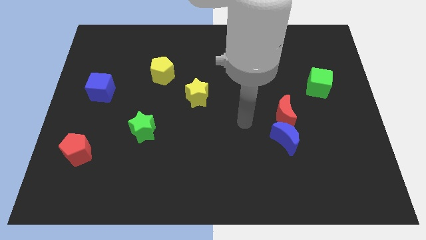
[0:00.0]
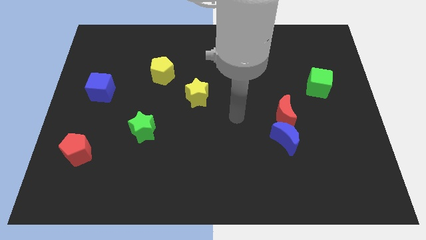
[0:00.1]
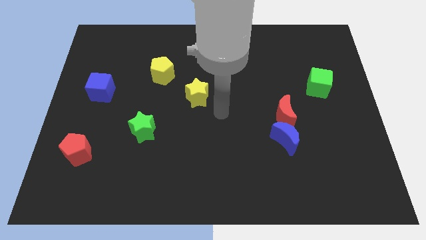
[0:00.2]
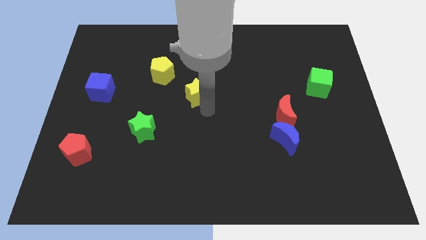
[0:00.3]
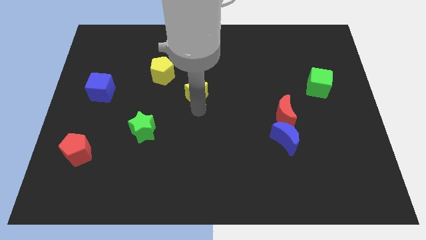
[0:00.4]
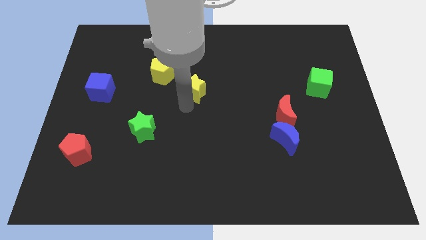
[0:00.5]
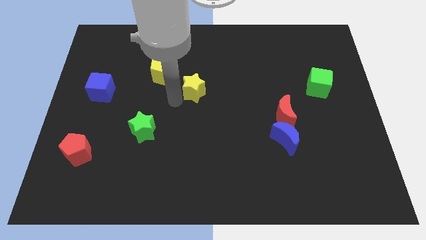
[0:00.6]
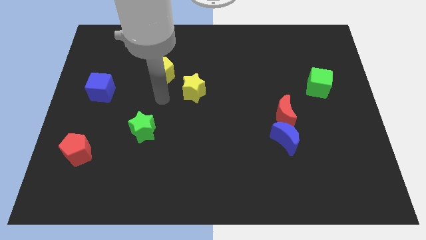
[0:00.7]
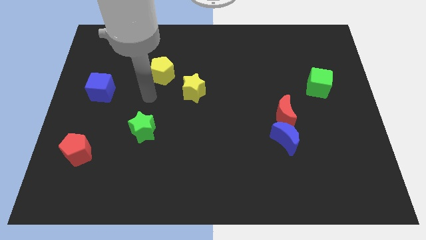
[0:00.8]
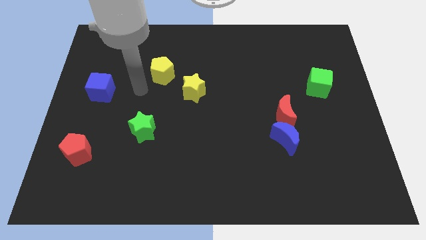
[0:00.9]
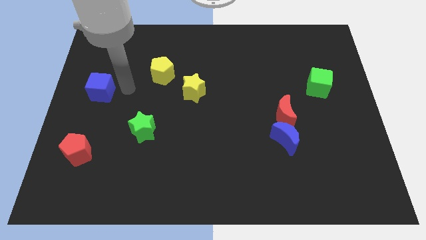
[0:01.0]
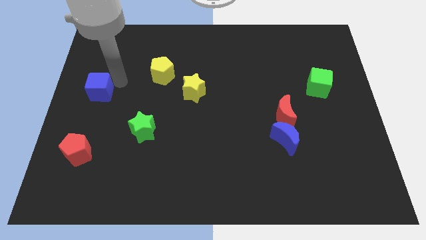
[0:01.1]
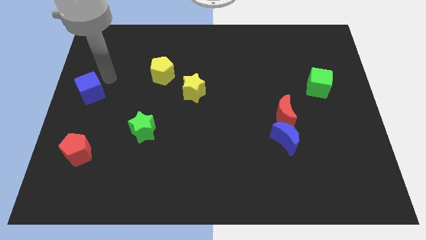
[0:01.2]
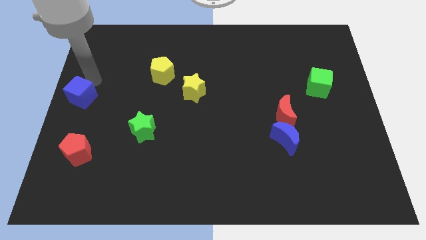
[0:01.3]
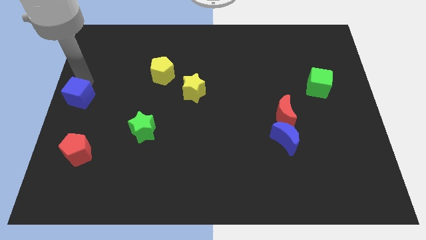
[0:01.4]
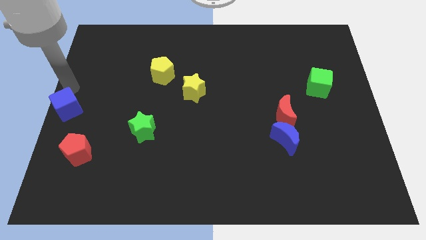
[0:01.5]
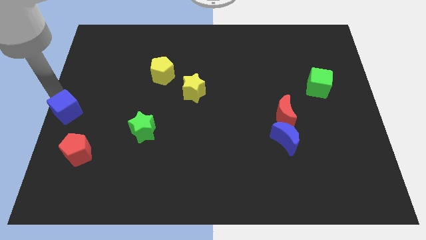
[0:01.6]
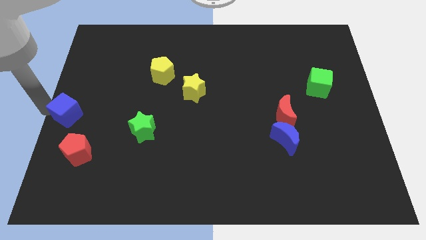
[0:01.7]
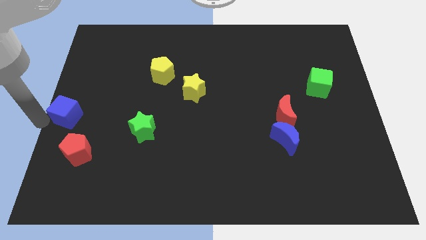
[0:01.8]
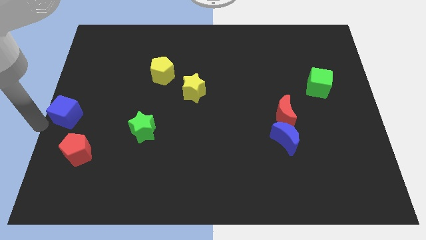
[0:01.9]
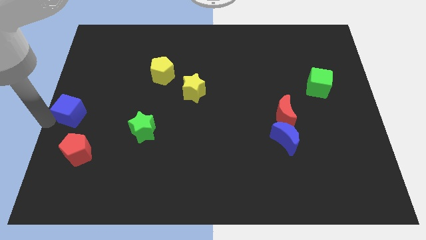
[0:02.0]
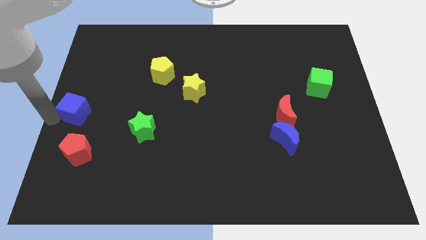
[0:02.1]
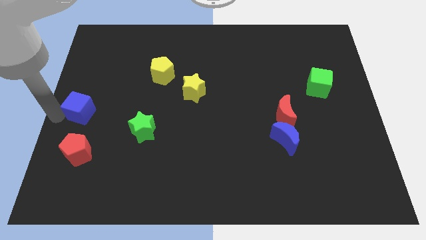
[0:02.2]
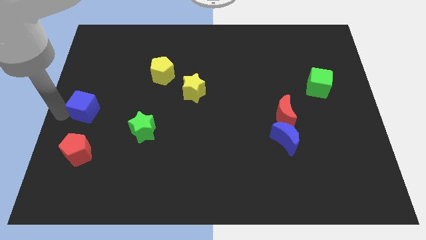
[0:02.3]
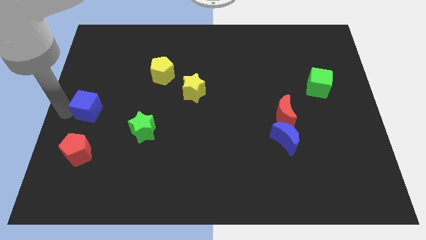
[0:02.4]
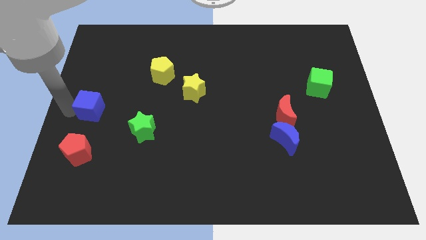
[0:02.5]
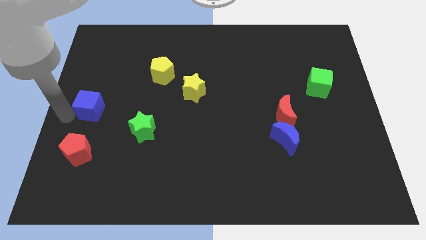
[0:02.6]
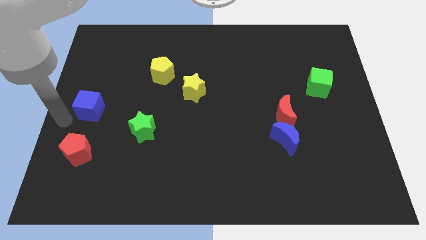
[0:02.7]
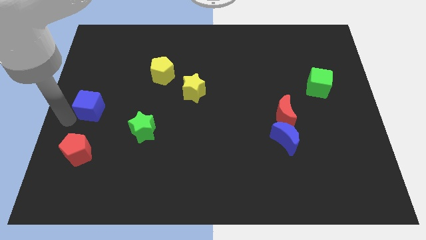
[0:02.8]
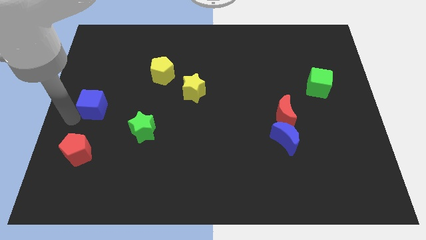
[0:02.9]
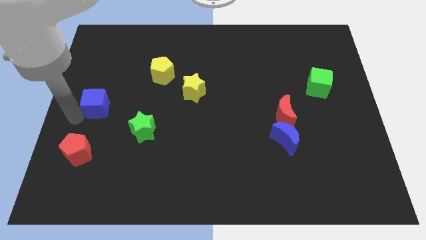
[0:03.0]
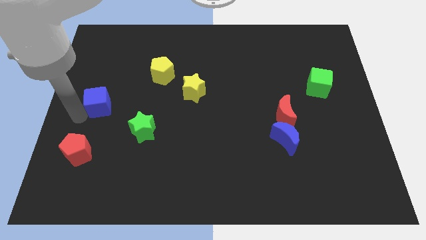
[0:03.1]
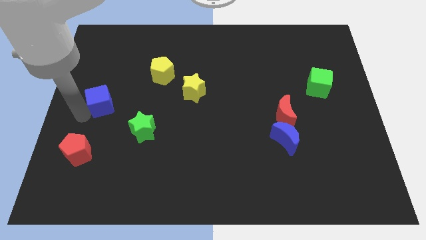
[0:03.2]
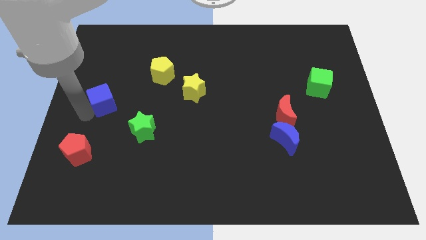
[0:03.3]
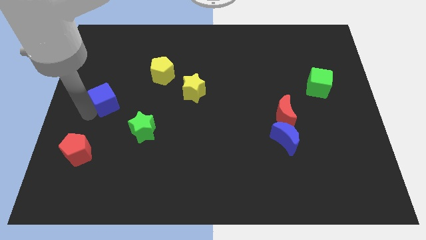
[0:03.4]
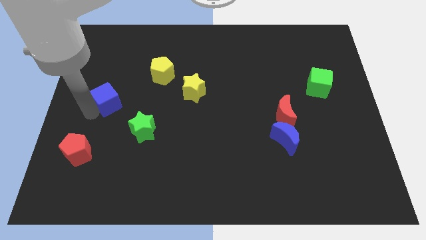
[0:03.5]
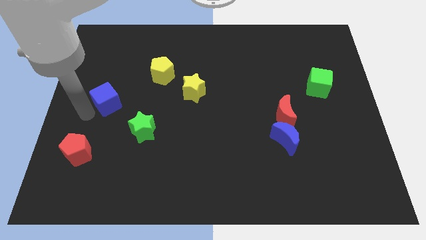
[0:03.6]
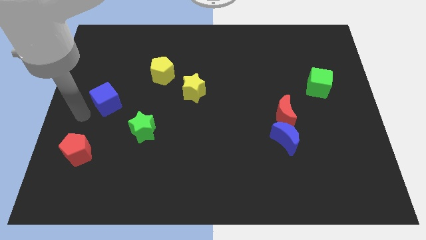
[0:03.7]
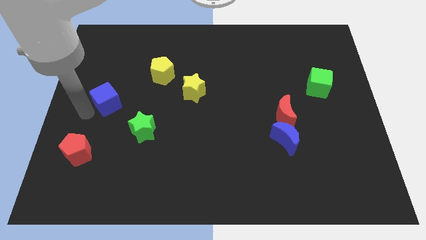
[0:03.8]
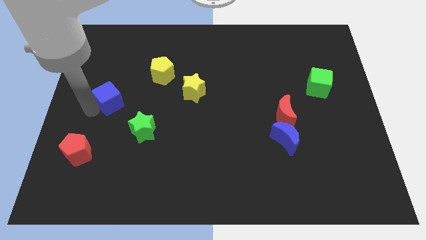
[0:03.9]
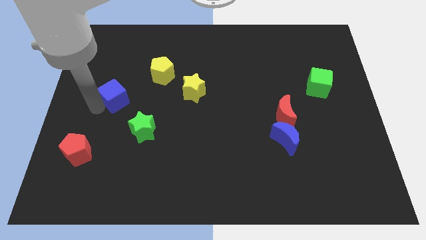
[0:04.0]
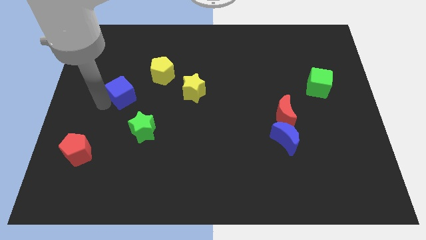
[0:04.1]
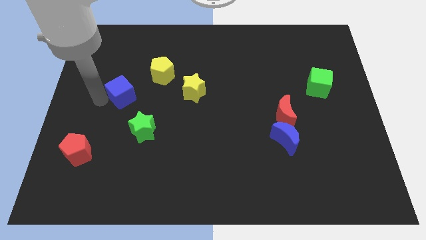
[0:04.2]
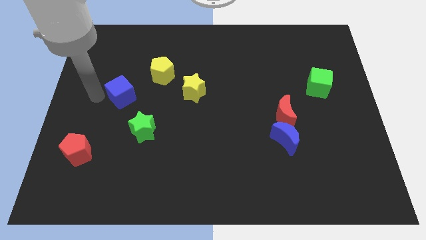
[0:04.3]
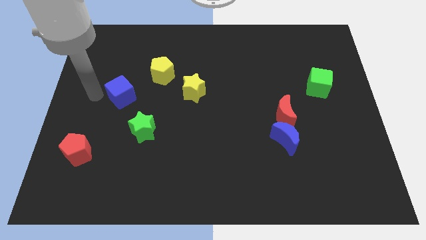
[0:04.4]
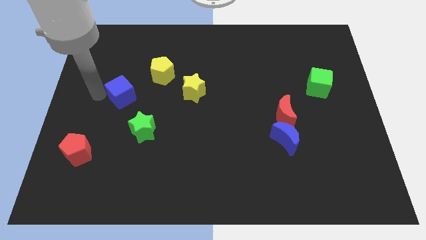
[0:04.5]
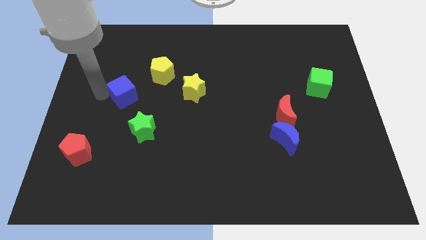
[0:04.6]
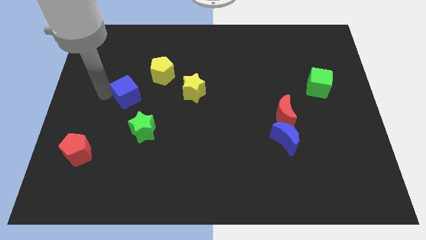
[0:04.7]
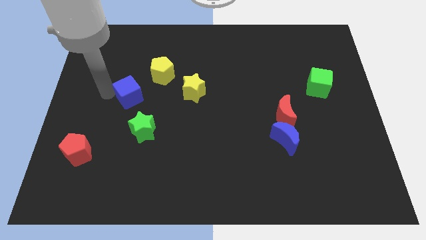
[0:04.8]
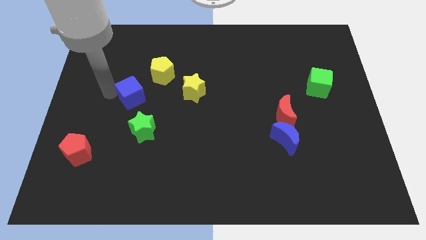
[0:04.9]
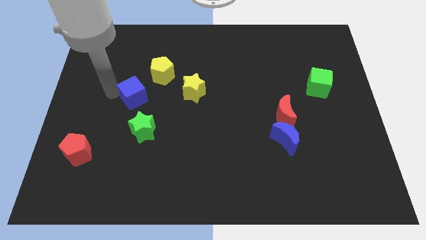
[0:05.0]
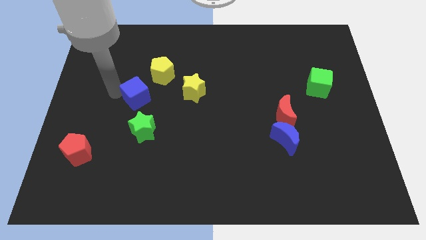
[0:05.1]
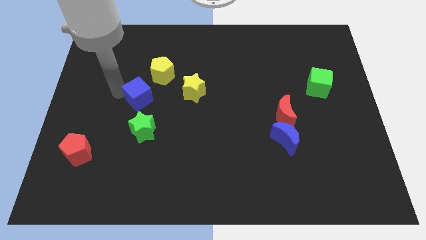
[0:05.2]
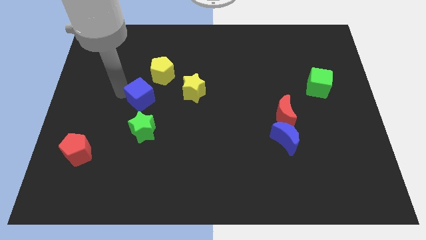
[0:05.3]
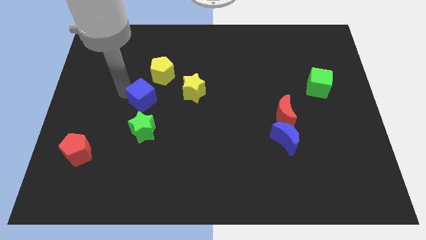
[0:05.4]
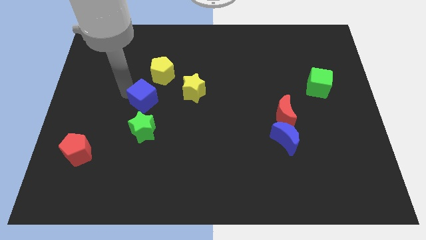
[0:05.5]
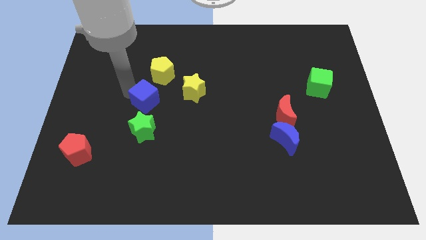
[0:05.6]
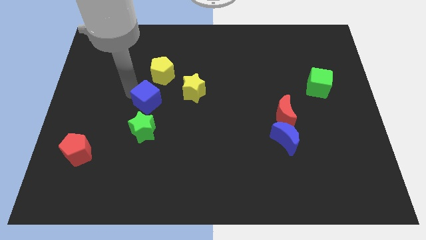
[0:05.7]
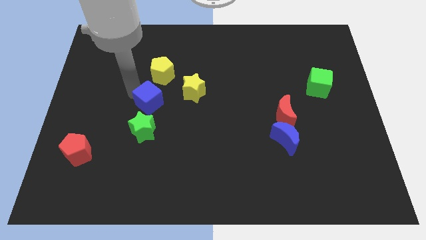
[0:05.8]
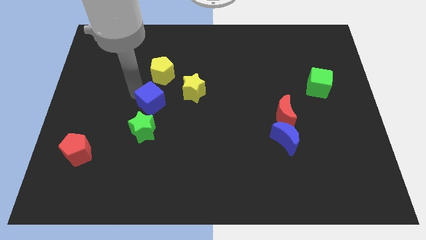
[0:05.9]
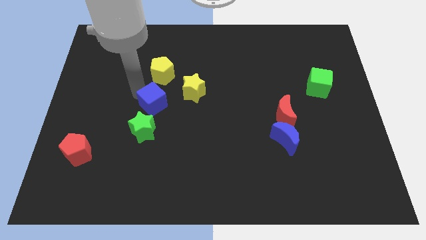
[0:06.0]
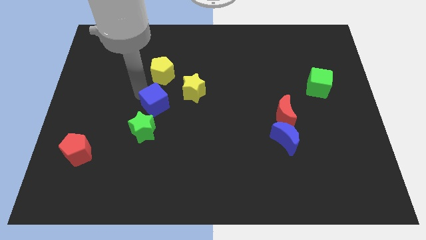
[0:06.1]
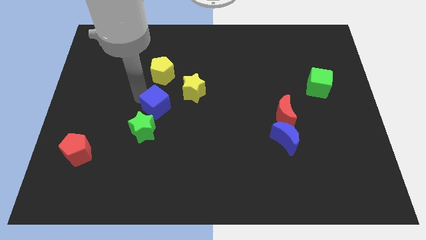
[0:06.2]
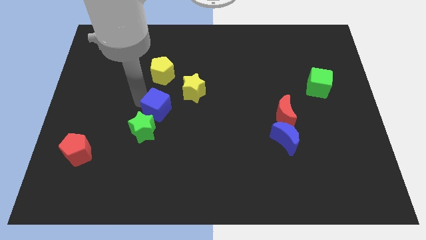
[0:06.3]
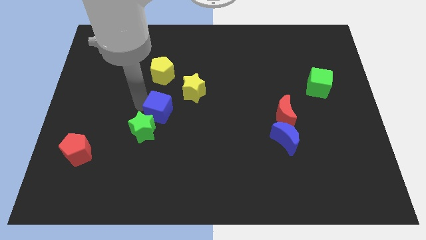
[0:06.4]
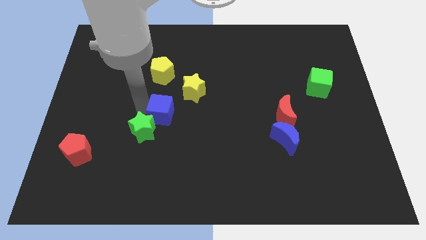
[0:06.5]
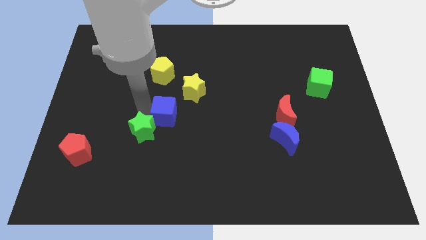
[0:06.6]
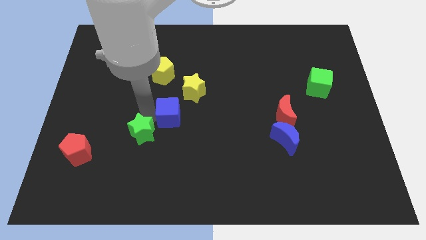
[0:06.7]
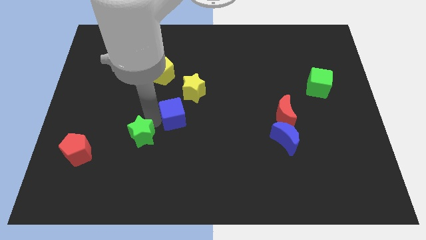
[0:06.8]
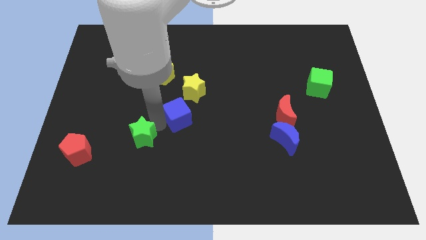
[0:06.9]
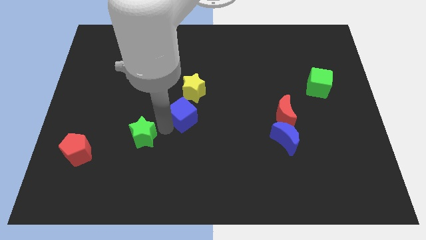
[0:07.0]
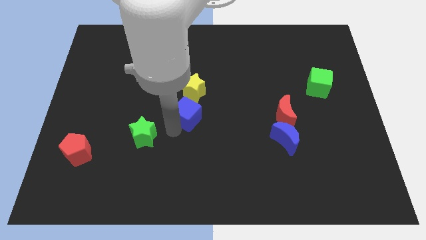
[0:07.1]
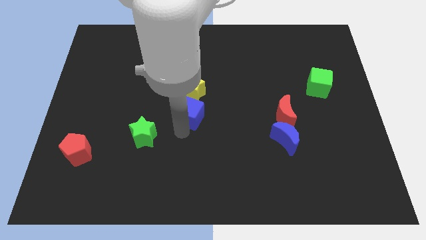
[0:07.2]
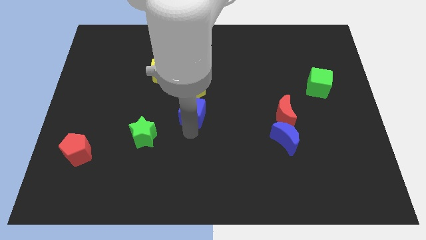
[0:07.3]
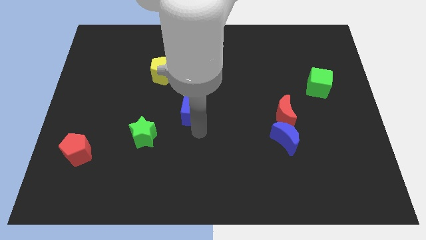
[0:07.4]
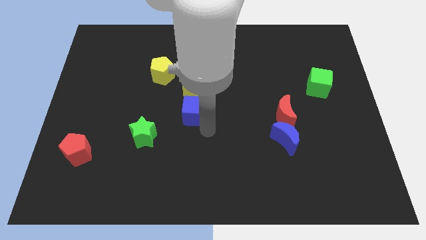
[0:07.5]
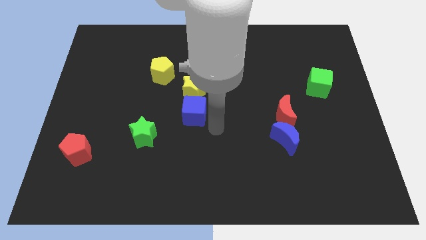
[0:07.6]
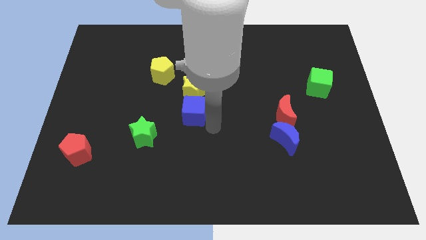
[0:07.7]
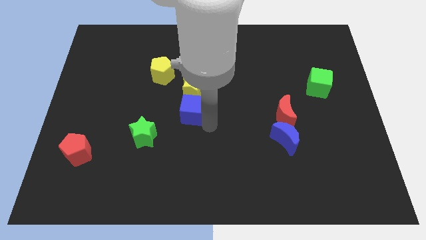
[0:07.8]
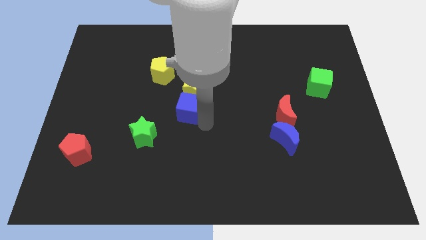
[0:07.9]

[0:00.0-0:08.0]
move the blue cube to the yellow star

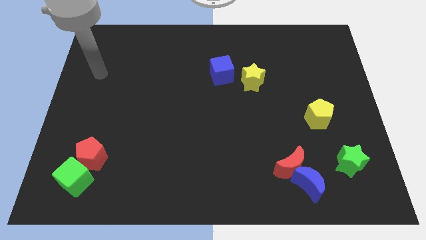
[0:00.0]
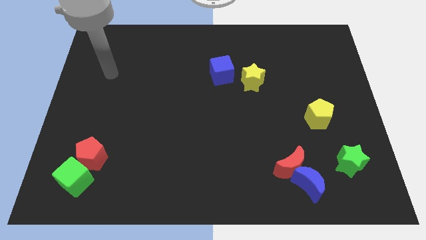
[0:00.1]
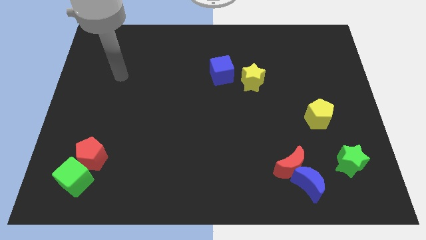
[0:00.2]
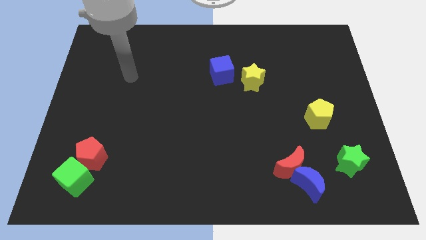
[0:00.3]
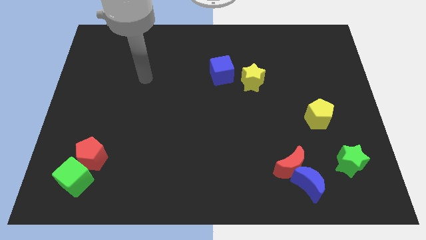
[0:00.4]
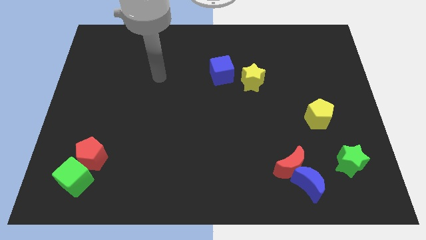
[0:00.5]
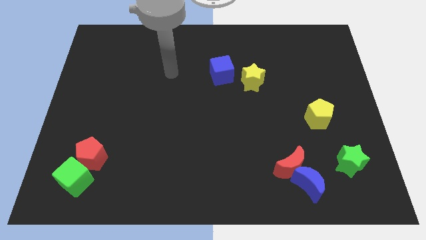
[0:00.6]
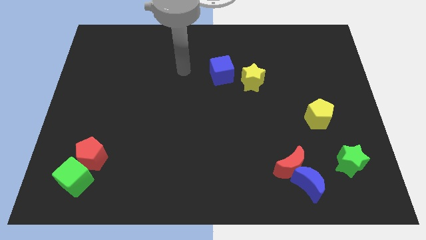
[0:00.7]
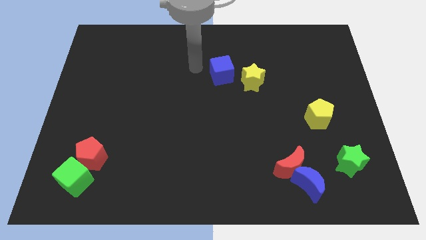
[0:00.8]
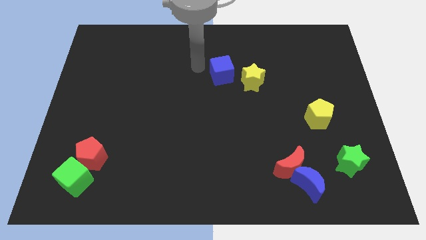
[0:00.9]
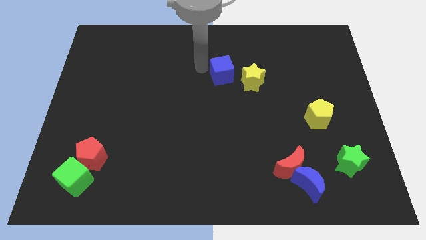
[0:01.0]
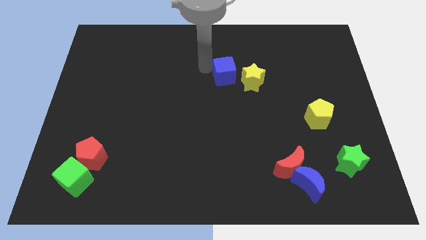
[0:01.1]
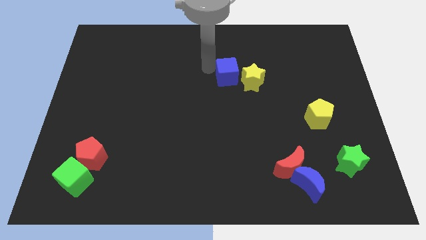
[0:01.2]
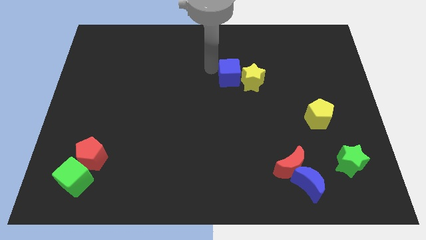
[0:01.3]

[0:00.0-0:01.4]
slide the blue cube to the yellow star
